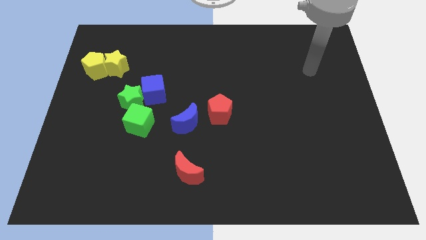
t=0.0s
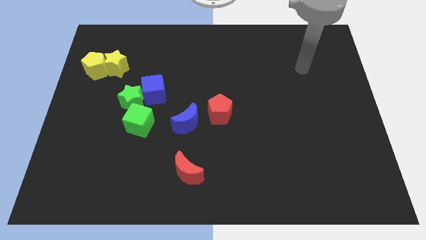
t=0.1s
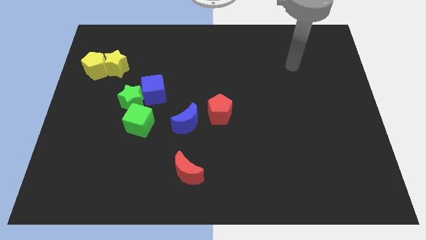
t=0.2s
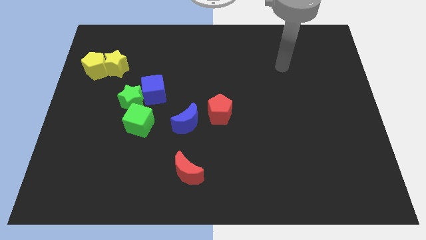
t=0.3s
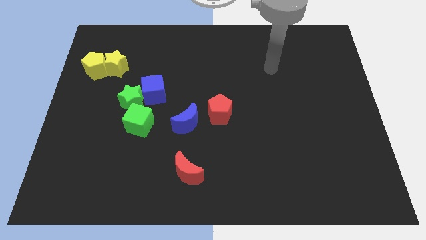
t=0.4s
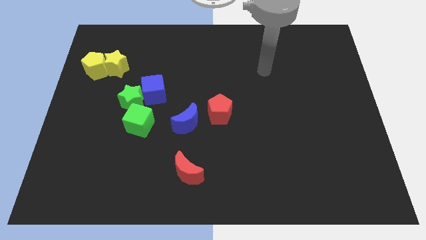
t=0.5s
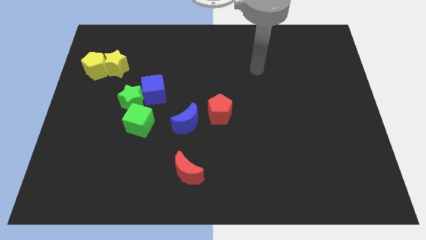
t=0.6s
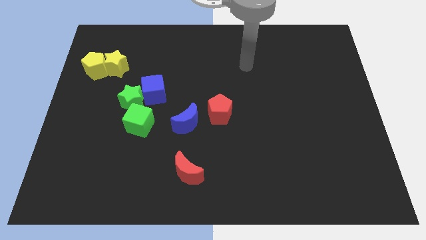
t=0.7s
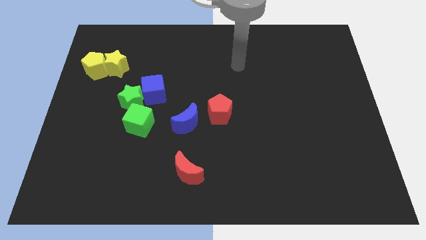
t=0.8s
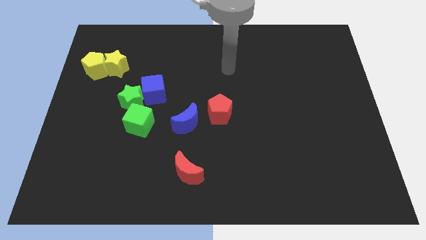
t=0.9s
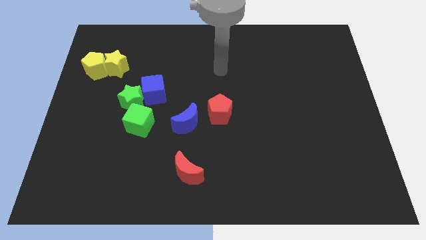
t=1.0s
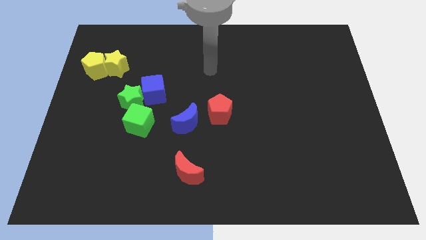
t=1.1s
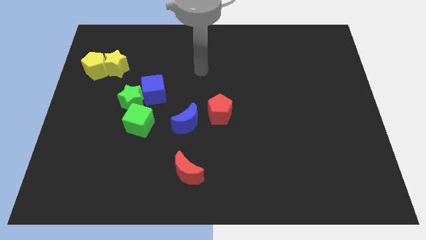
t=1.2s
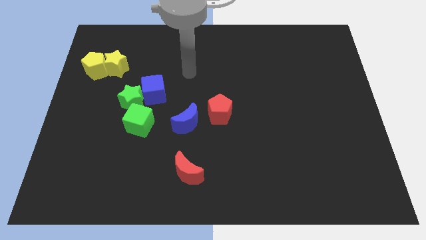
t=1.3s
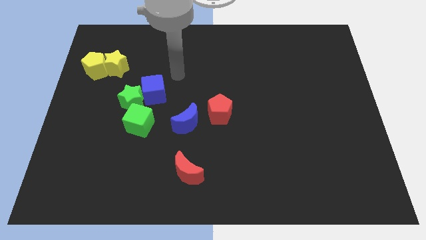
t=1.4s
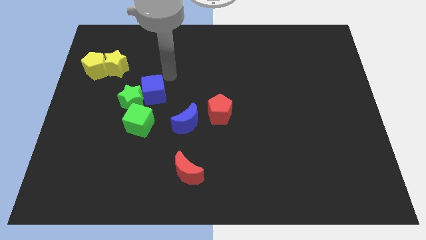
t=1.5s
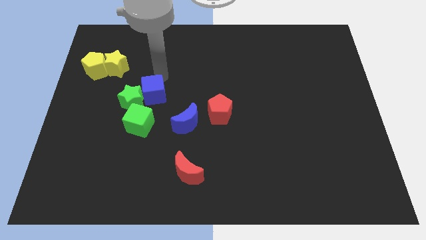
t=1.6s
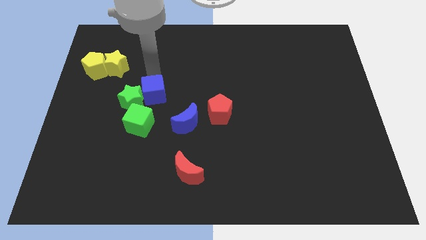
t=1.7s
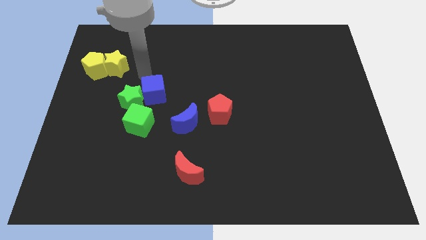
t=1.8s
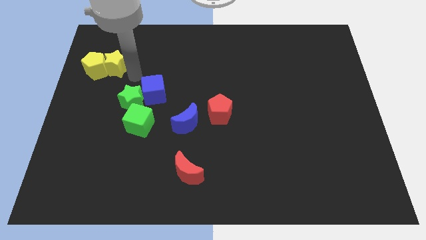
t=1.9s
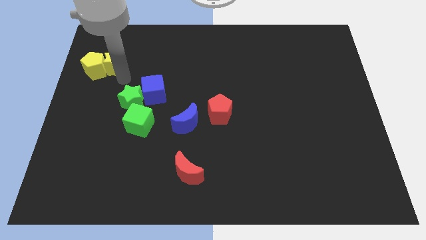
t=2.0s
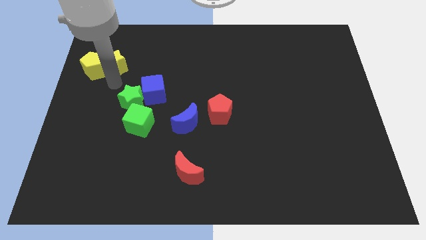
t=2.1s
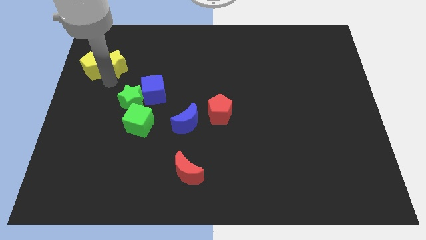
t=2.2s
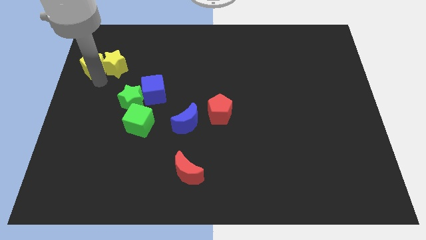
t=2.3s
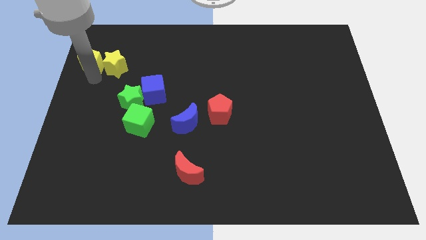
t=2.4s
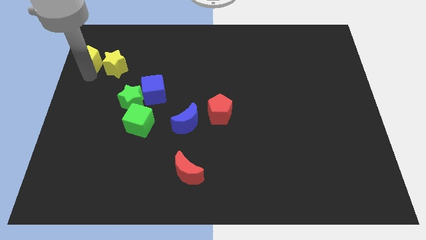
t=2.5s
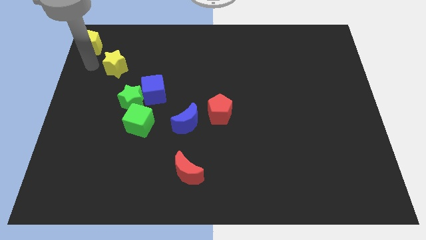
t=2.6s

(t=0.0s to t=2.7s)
move the yellow star away from the yellow pentagon

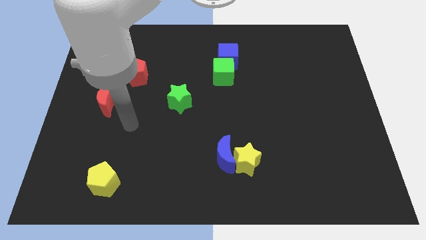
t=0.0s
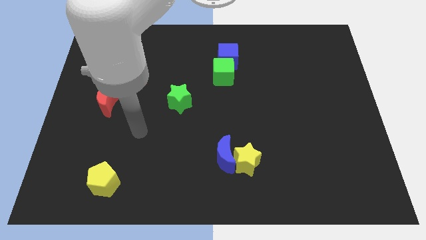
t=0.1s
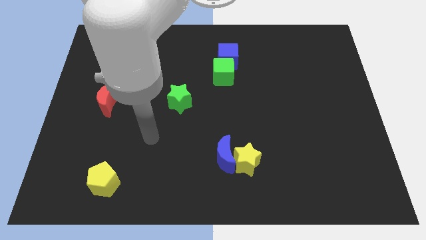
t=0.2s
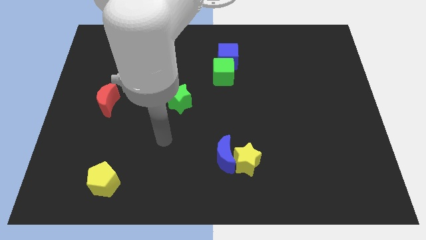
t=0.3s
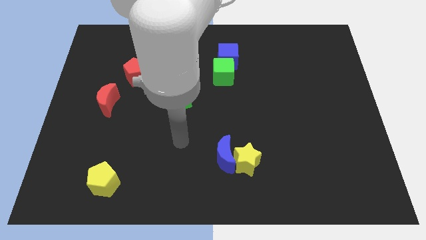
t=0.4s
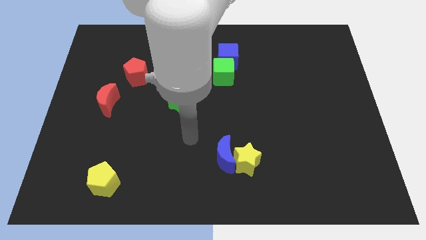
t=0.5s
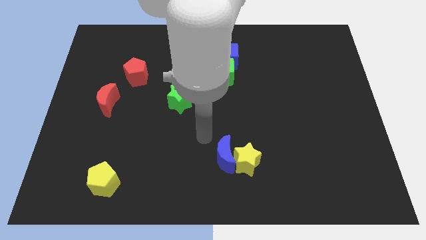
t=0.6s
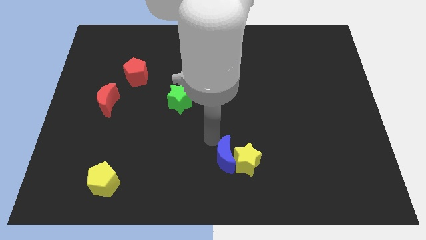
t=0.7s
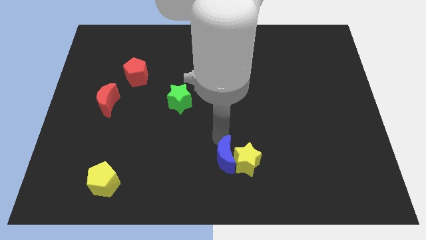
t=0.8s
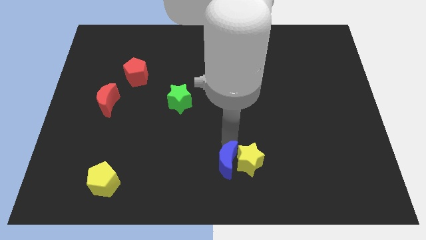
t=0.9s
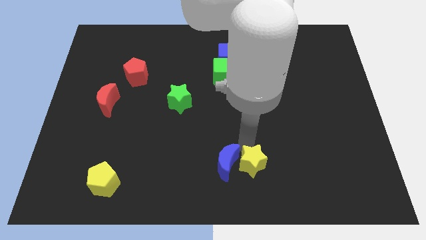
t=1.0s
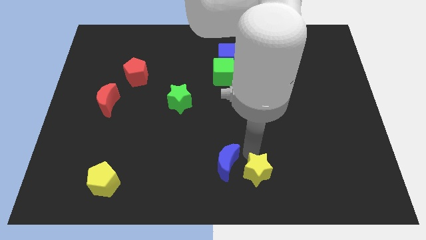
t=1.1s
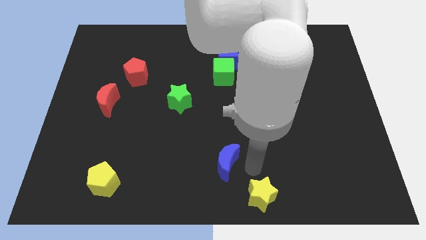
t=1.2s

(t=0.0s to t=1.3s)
separate the blue moon from the yellow star

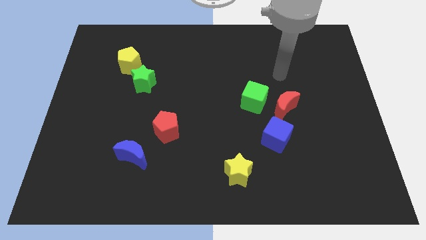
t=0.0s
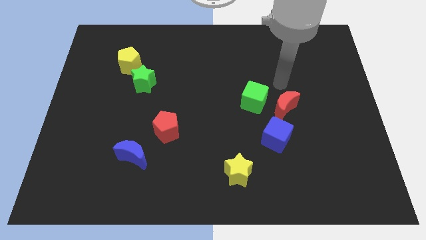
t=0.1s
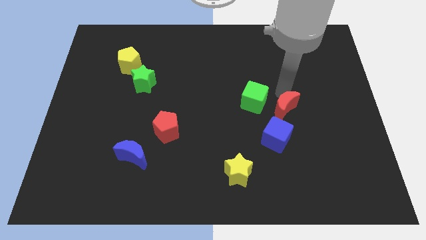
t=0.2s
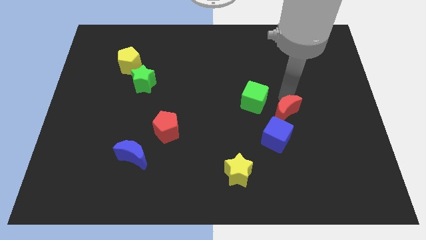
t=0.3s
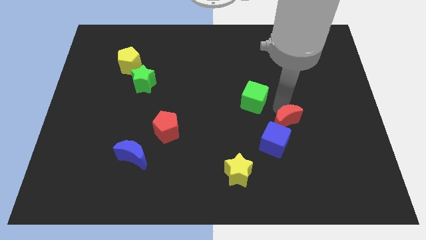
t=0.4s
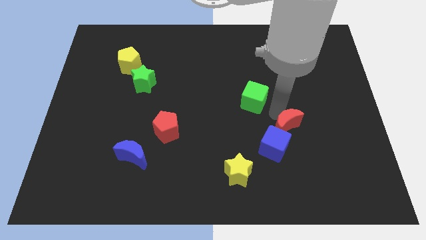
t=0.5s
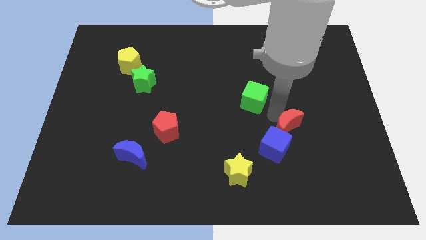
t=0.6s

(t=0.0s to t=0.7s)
move the green cube away from the red moon

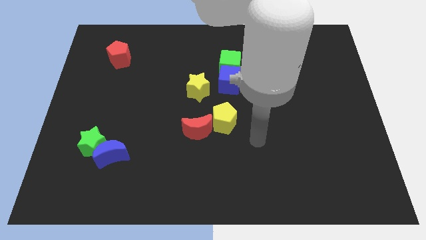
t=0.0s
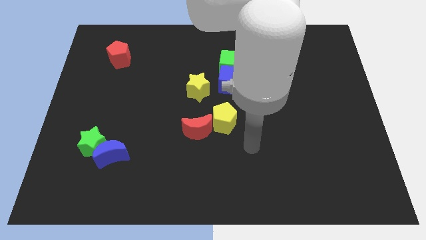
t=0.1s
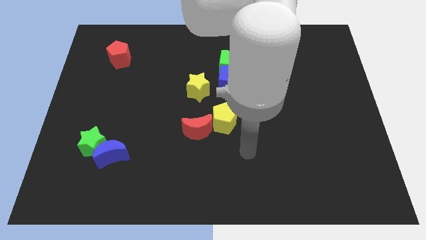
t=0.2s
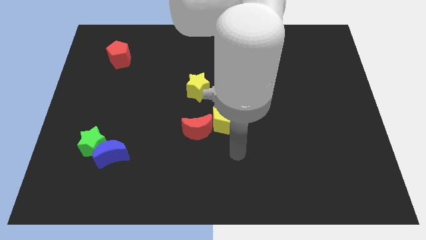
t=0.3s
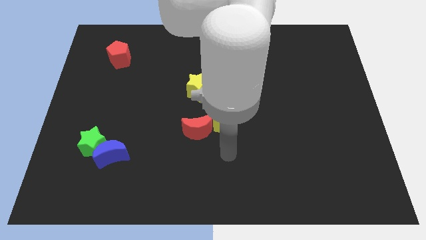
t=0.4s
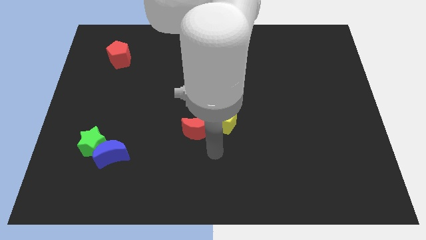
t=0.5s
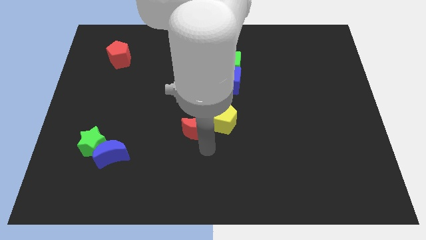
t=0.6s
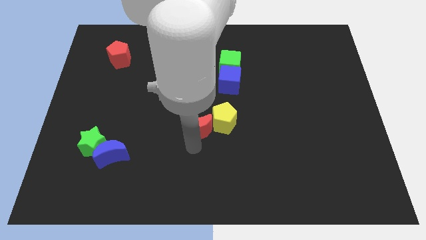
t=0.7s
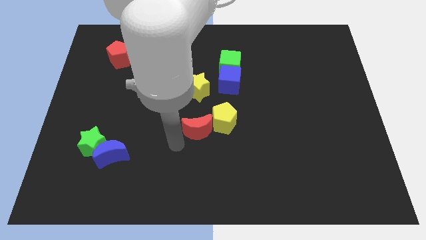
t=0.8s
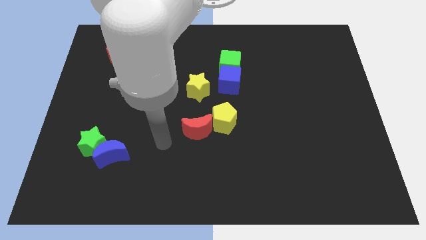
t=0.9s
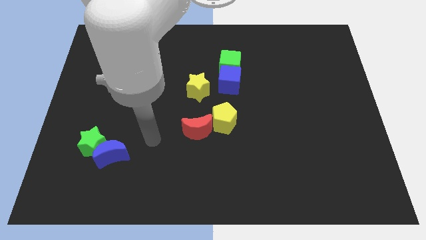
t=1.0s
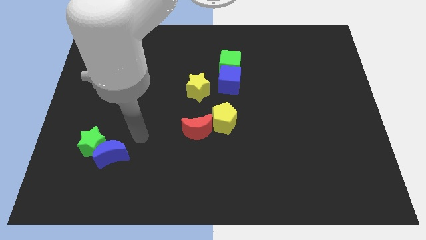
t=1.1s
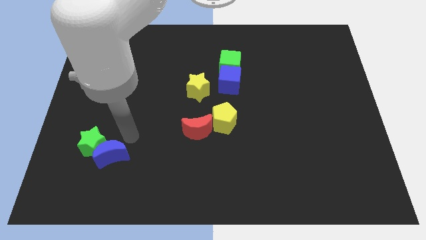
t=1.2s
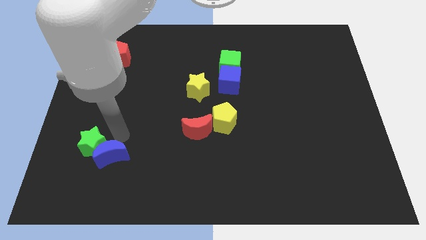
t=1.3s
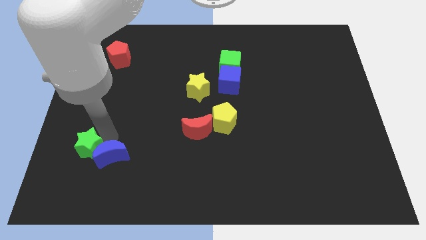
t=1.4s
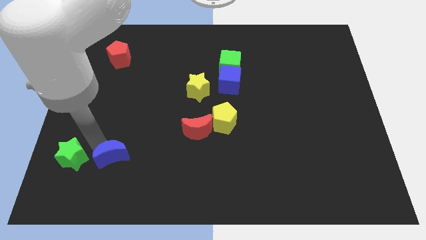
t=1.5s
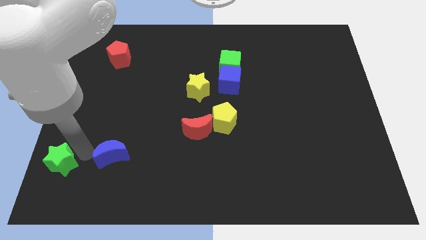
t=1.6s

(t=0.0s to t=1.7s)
separate the blue moon from the green star

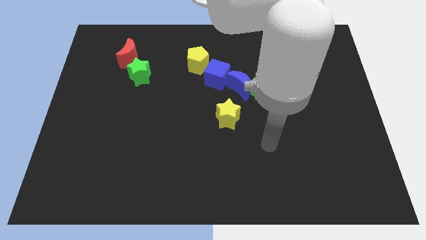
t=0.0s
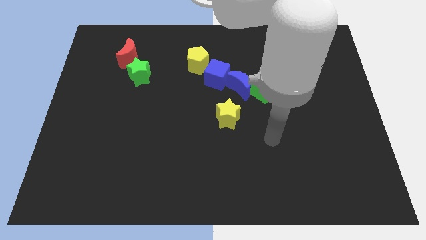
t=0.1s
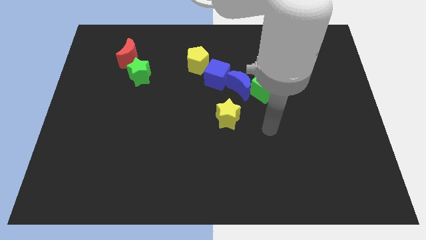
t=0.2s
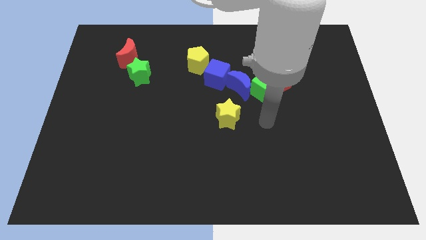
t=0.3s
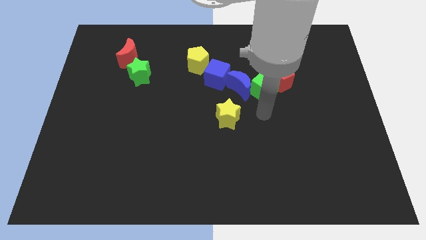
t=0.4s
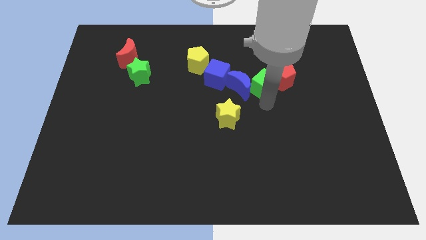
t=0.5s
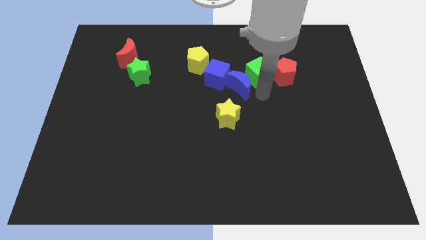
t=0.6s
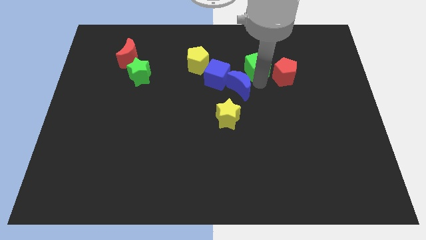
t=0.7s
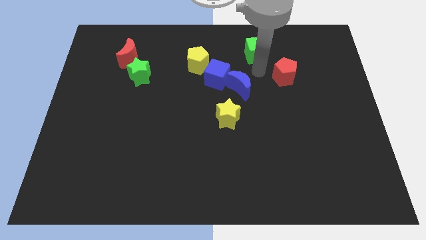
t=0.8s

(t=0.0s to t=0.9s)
separate the red pentagon from the green cube

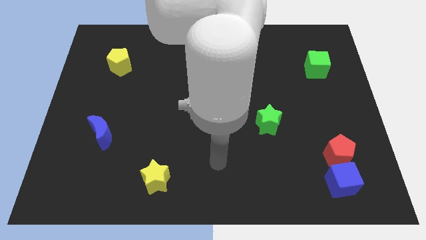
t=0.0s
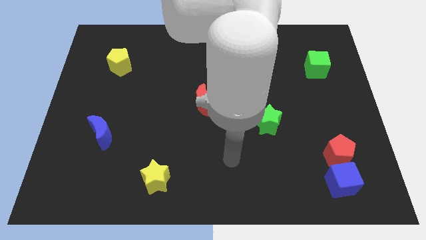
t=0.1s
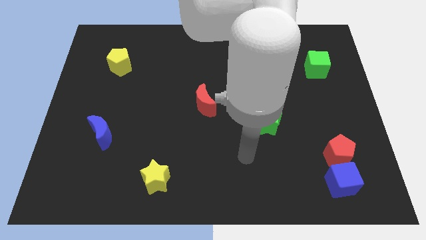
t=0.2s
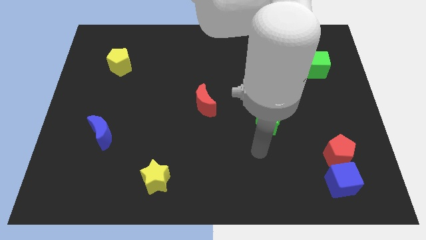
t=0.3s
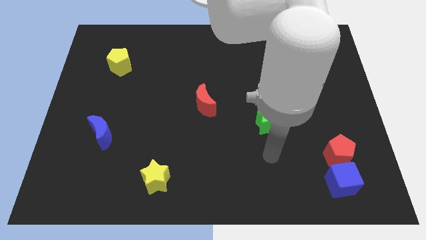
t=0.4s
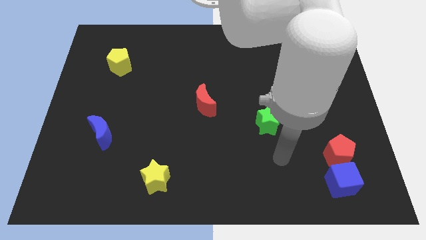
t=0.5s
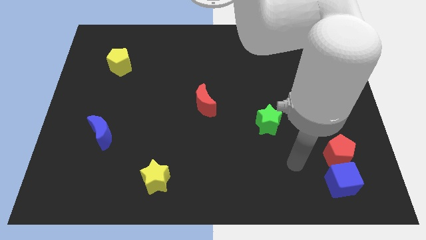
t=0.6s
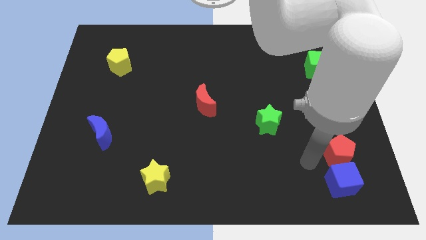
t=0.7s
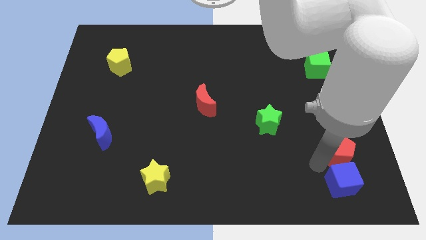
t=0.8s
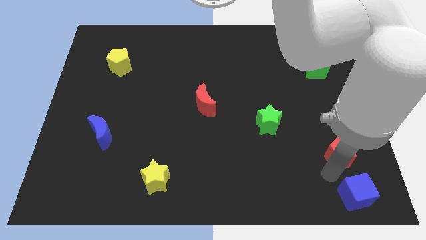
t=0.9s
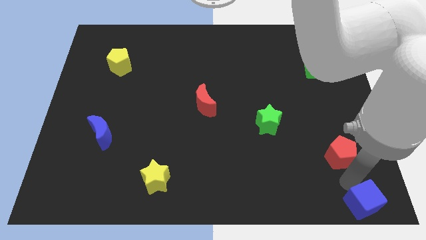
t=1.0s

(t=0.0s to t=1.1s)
separate the red pentagon from the blue cube

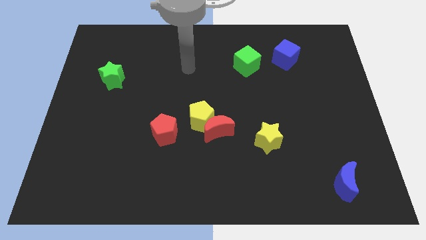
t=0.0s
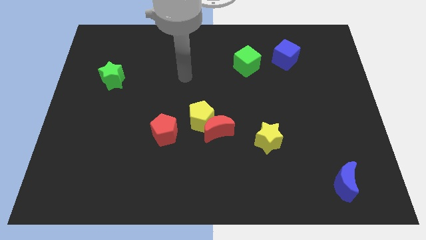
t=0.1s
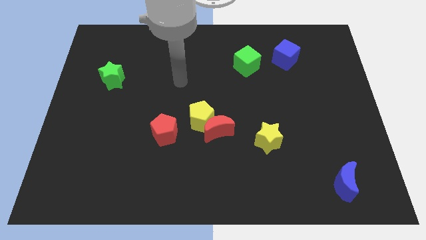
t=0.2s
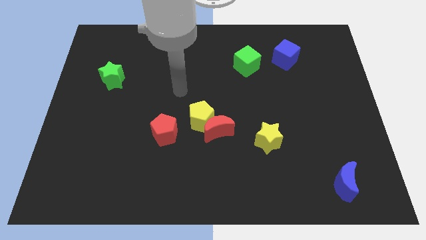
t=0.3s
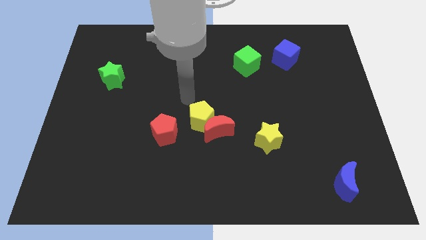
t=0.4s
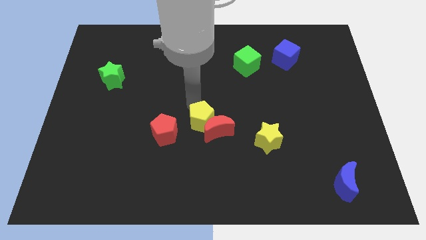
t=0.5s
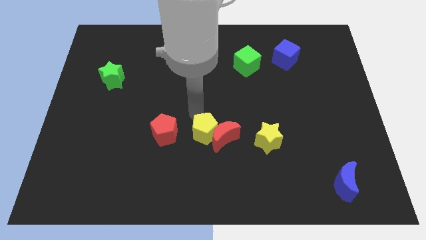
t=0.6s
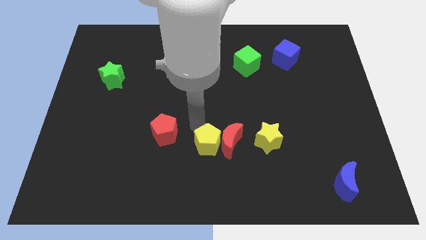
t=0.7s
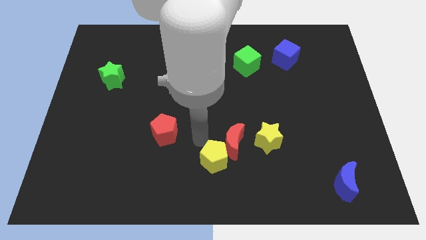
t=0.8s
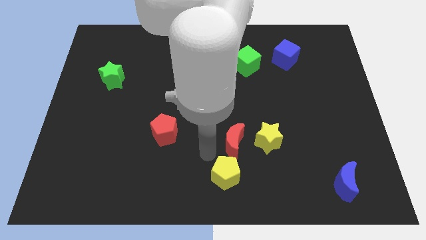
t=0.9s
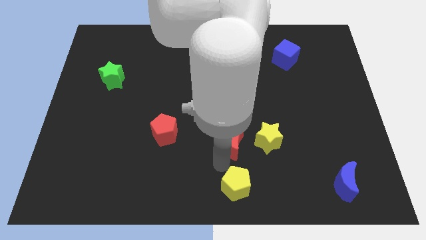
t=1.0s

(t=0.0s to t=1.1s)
separate the red moon from the yellow pentagon
